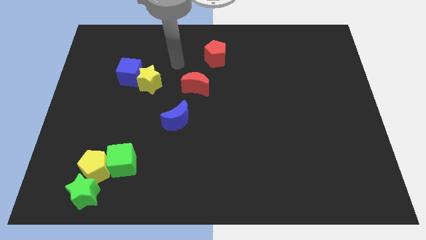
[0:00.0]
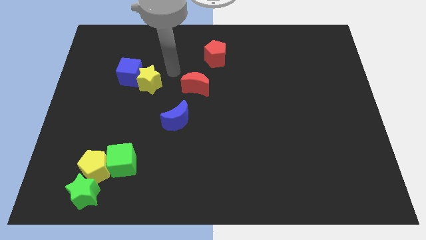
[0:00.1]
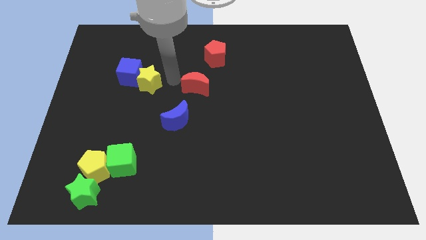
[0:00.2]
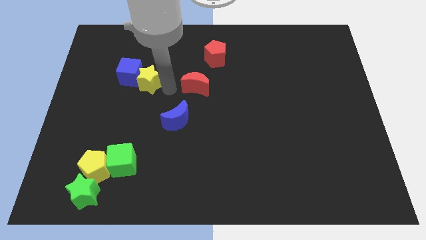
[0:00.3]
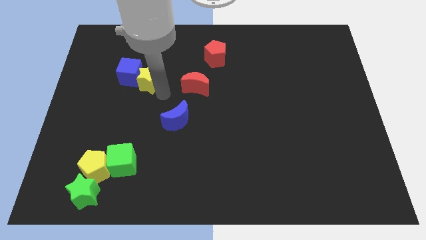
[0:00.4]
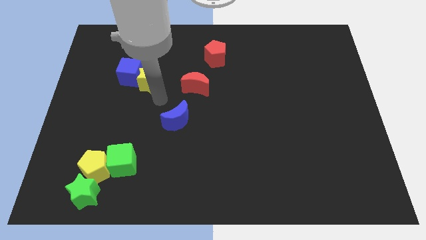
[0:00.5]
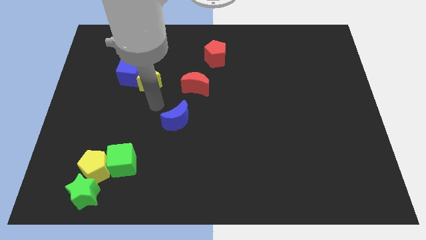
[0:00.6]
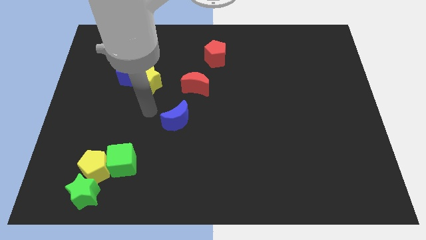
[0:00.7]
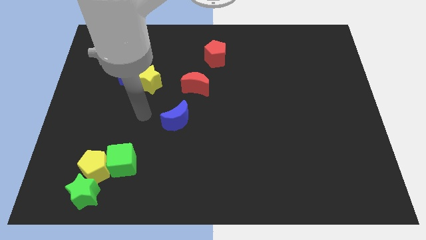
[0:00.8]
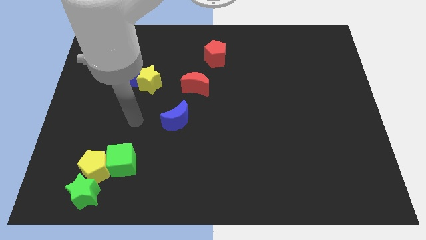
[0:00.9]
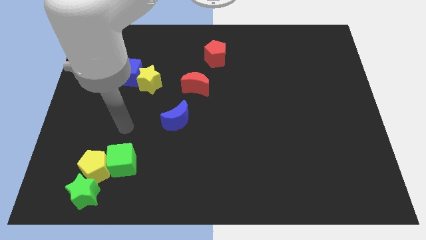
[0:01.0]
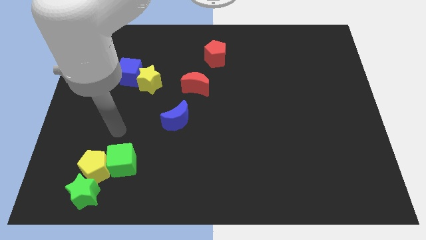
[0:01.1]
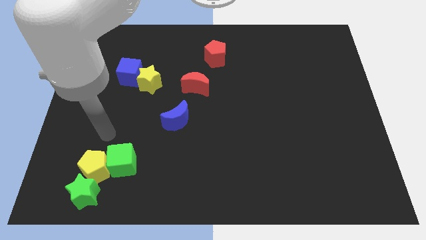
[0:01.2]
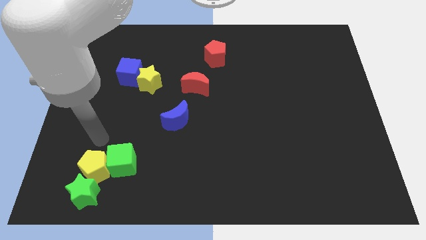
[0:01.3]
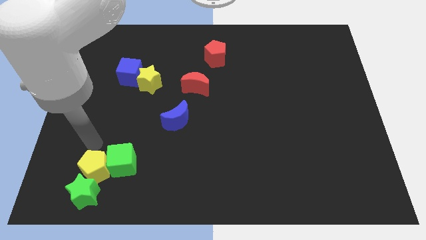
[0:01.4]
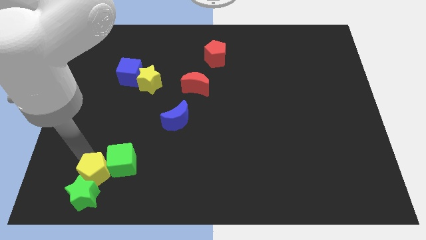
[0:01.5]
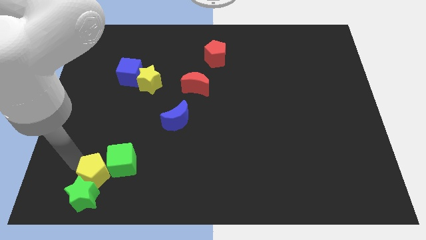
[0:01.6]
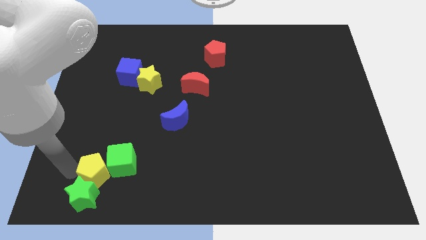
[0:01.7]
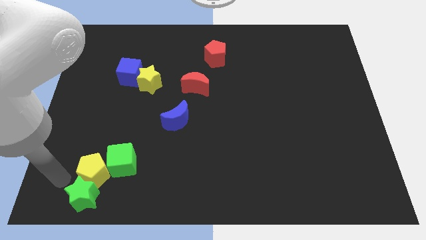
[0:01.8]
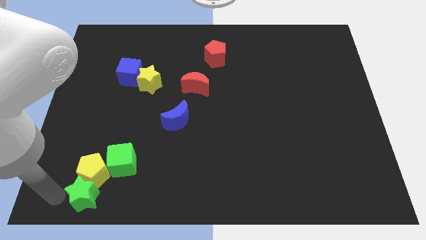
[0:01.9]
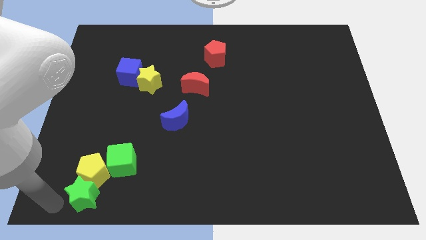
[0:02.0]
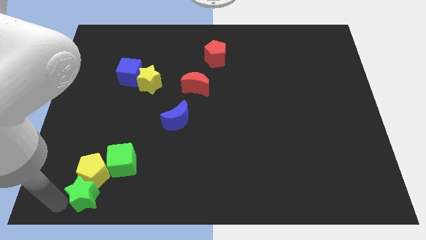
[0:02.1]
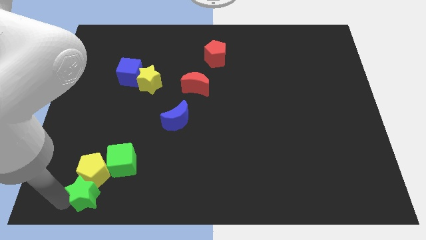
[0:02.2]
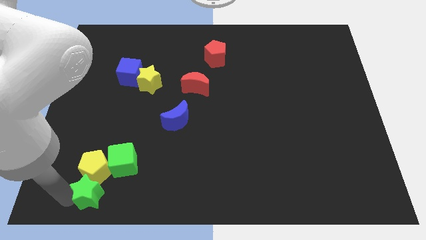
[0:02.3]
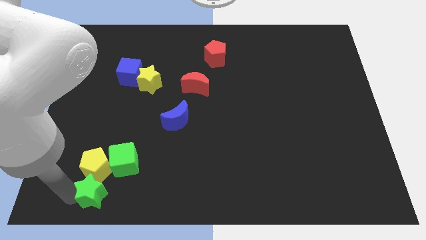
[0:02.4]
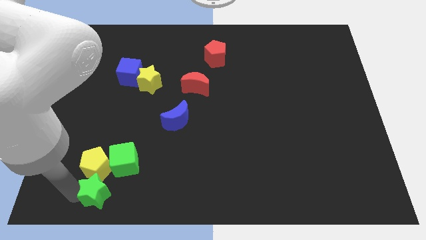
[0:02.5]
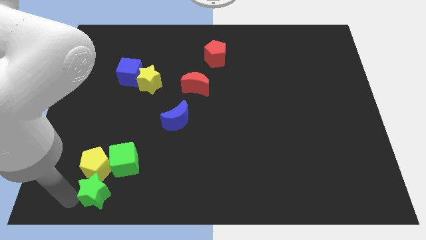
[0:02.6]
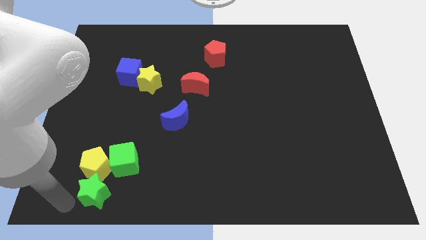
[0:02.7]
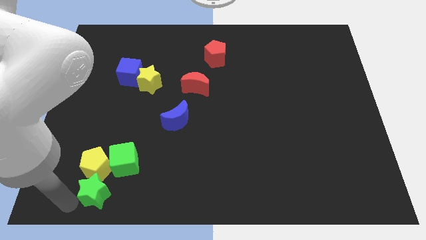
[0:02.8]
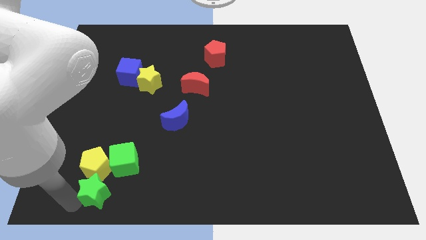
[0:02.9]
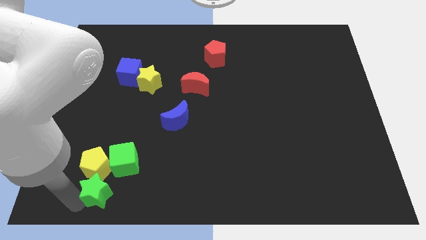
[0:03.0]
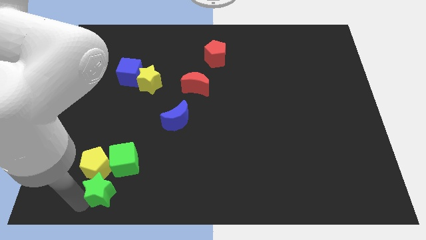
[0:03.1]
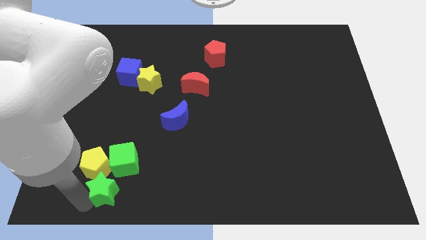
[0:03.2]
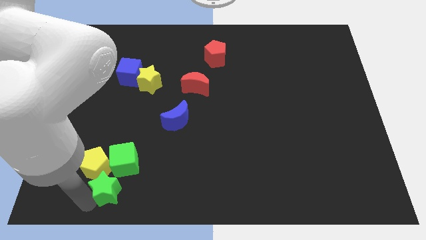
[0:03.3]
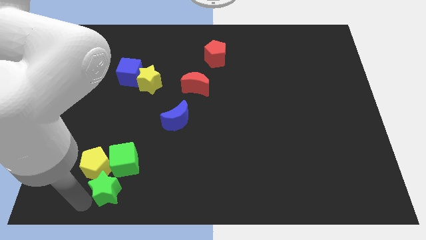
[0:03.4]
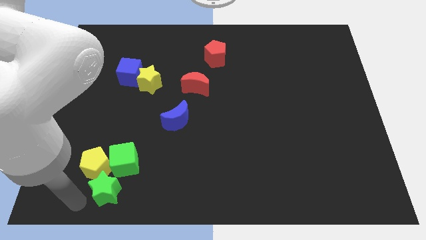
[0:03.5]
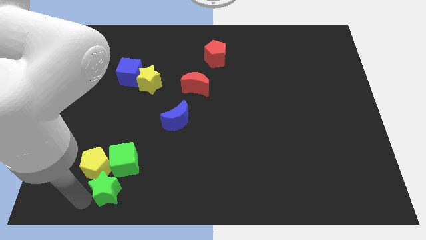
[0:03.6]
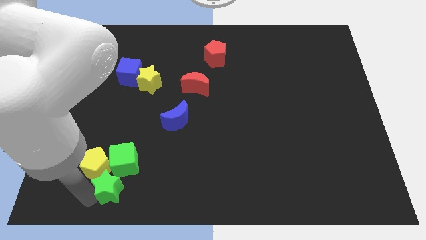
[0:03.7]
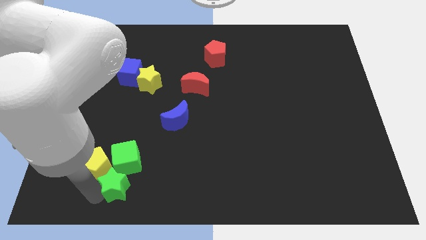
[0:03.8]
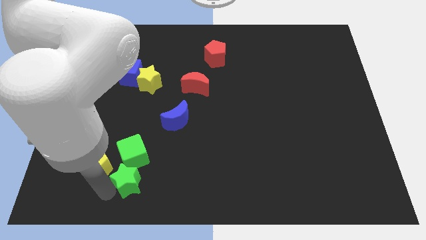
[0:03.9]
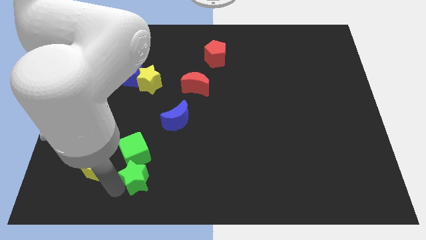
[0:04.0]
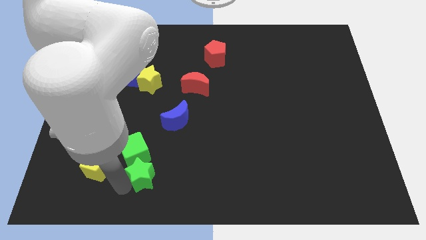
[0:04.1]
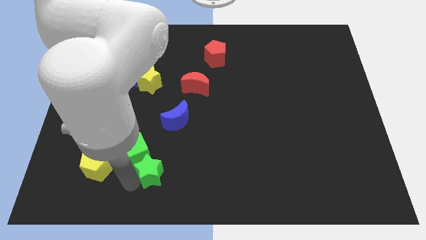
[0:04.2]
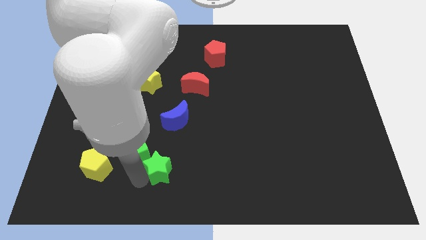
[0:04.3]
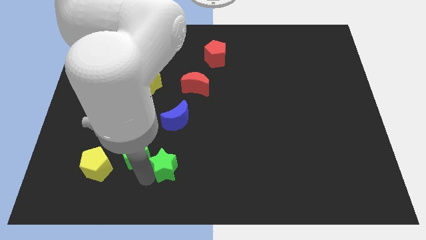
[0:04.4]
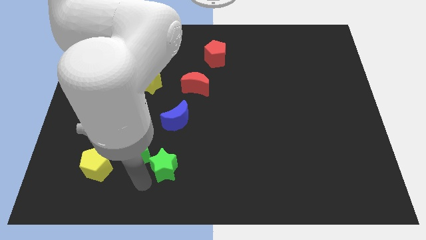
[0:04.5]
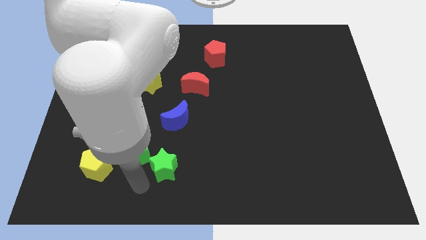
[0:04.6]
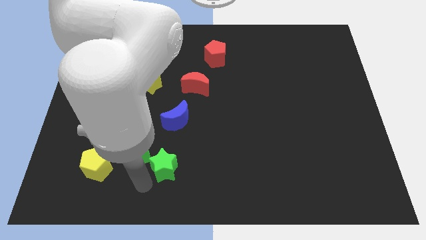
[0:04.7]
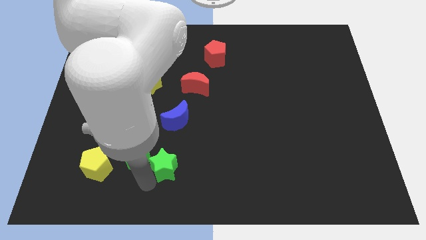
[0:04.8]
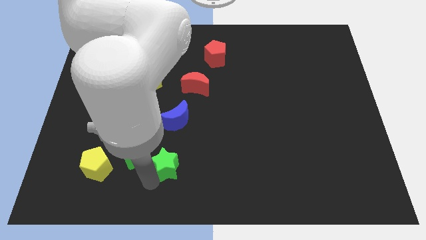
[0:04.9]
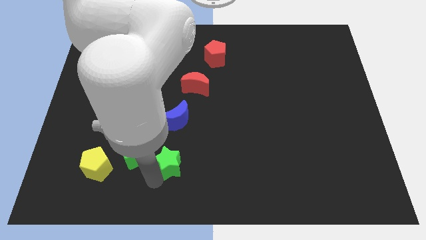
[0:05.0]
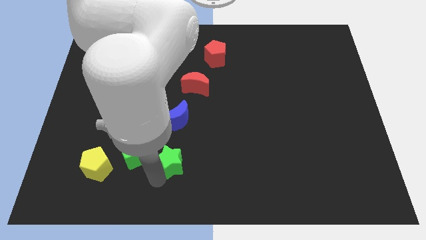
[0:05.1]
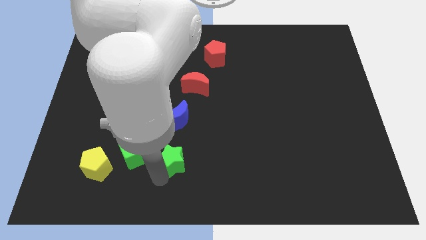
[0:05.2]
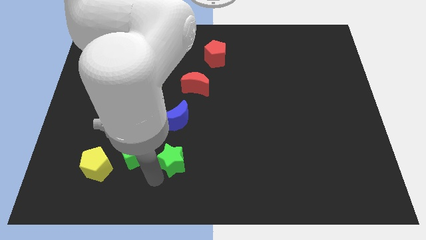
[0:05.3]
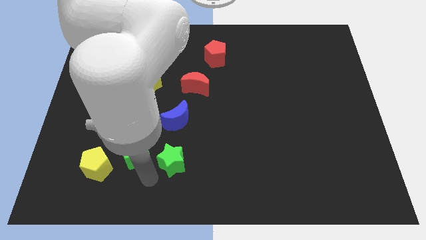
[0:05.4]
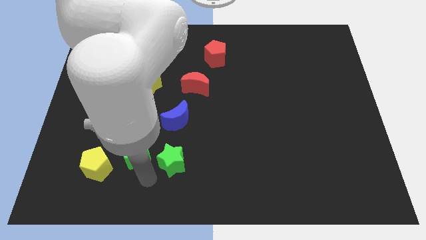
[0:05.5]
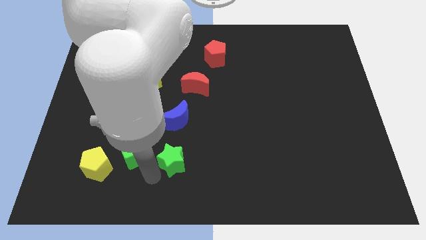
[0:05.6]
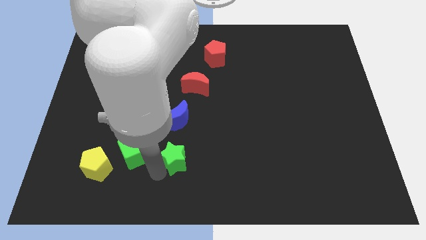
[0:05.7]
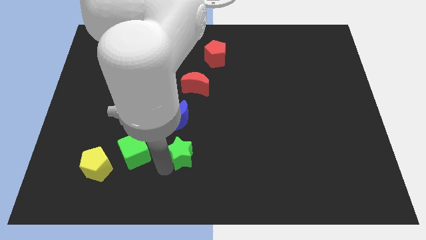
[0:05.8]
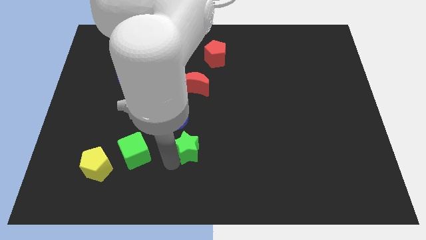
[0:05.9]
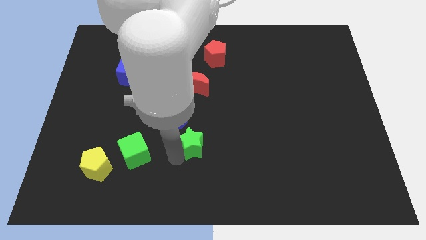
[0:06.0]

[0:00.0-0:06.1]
slide the green star diagonally up and right

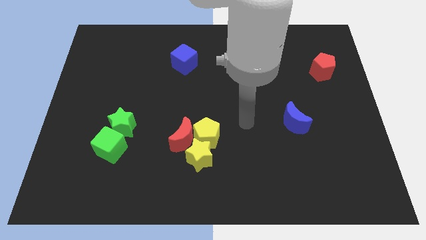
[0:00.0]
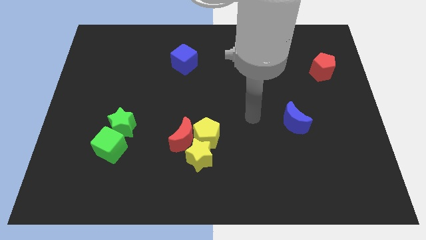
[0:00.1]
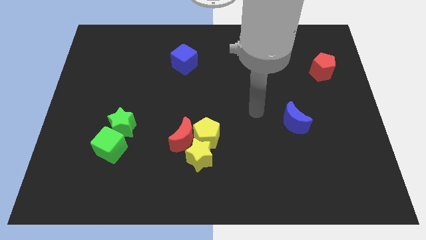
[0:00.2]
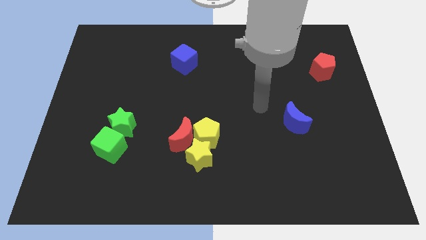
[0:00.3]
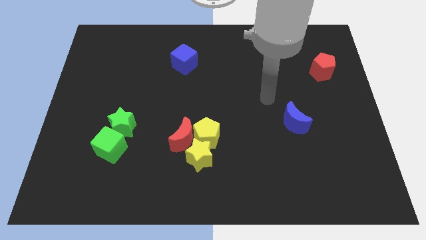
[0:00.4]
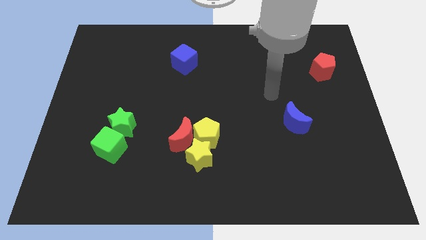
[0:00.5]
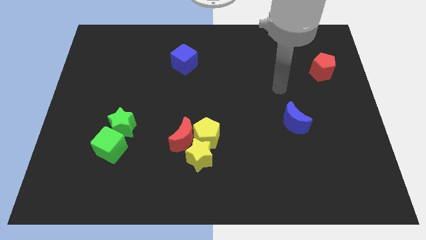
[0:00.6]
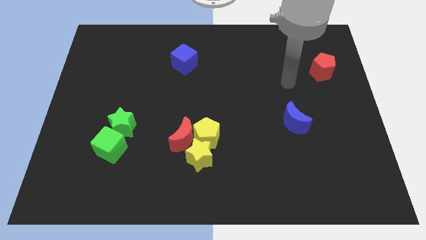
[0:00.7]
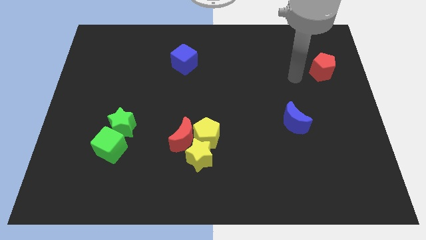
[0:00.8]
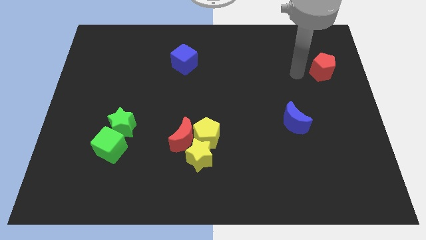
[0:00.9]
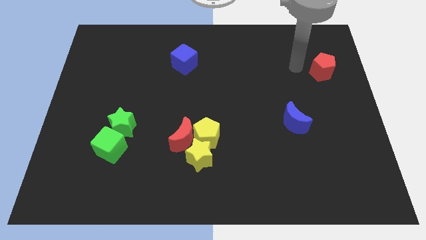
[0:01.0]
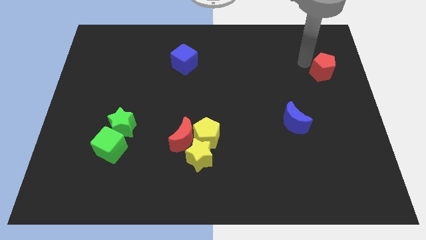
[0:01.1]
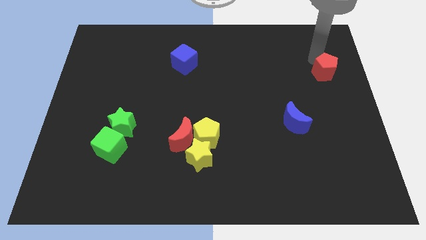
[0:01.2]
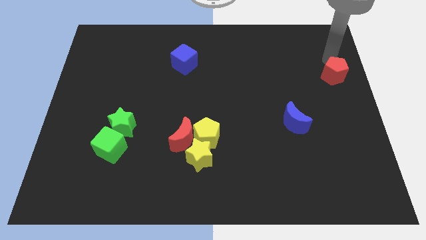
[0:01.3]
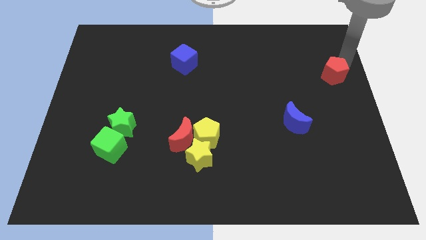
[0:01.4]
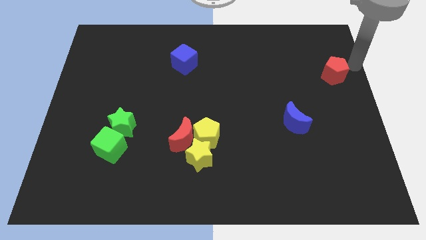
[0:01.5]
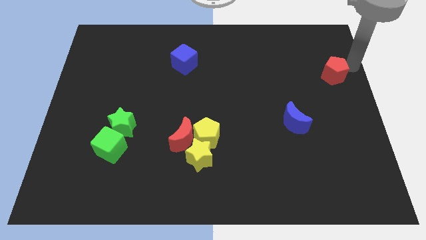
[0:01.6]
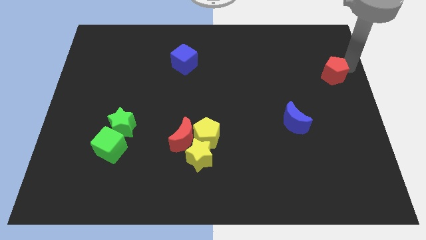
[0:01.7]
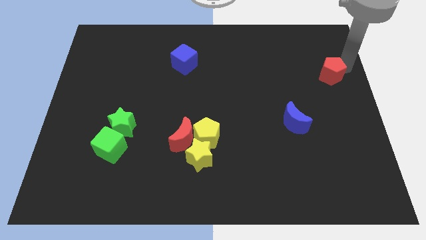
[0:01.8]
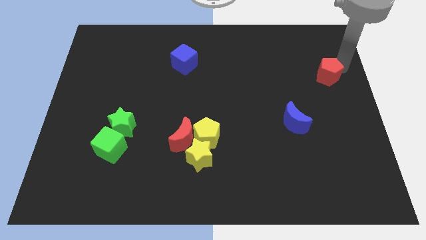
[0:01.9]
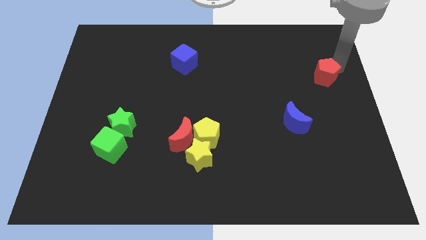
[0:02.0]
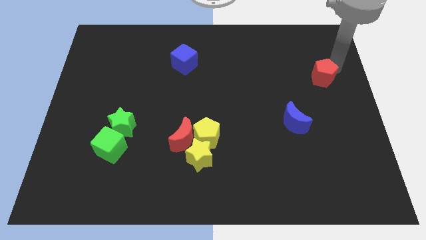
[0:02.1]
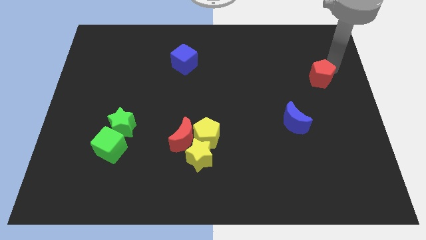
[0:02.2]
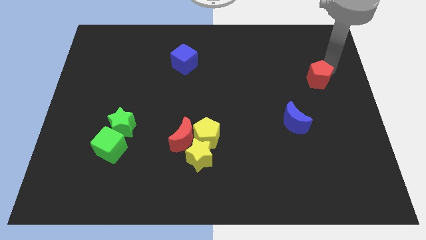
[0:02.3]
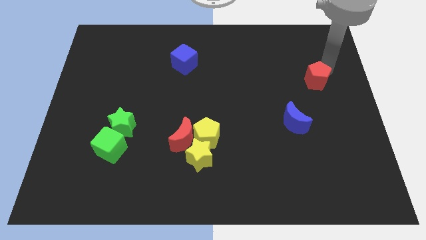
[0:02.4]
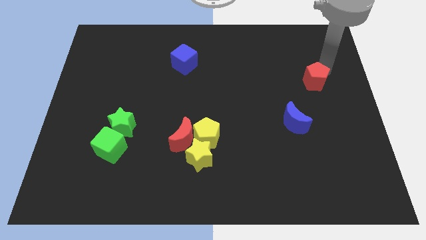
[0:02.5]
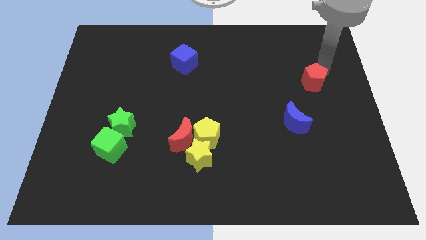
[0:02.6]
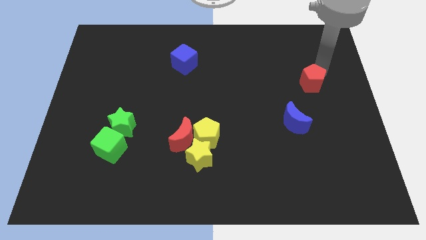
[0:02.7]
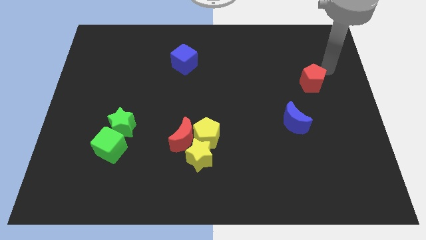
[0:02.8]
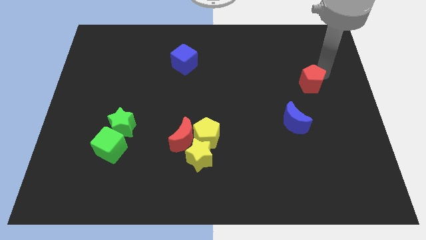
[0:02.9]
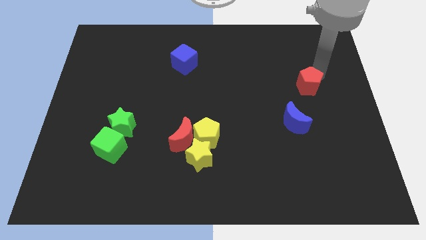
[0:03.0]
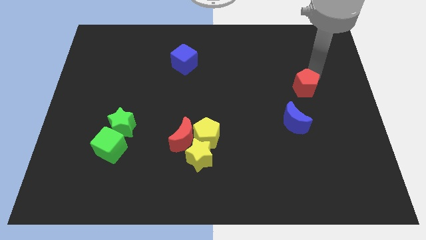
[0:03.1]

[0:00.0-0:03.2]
push the red pentagon a little bit down and to the left diagonally
